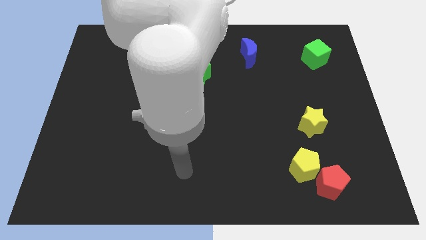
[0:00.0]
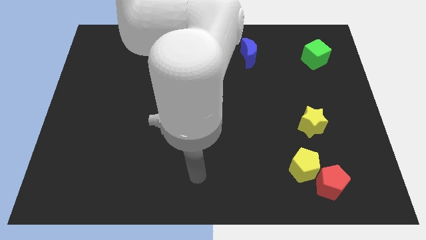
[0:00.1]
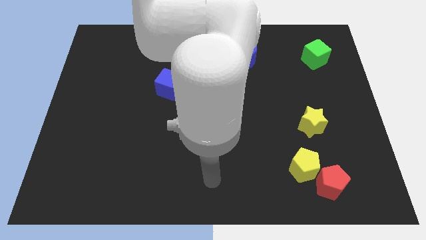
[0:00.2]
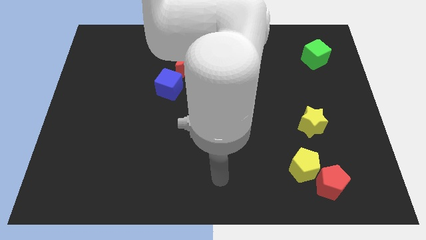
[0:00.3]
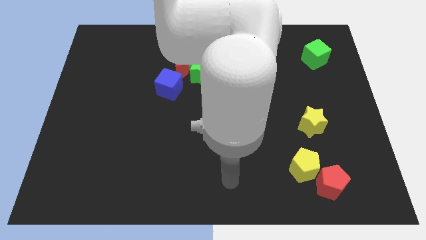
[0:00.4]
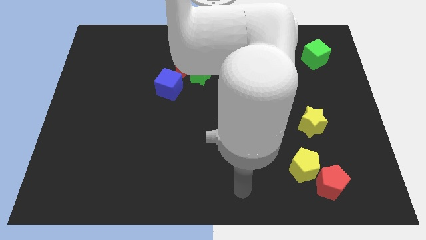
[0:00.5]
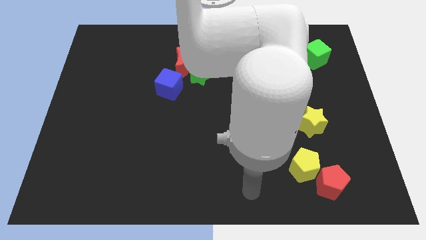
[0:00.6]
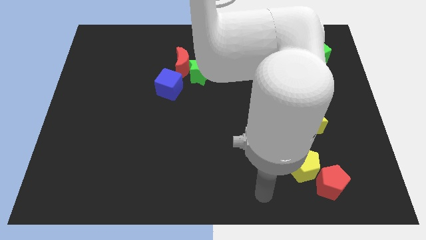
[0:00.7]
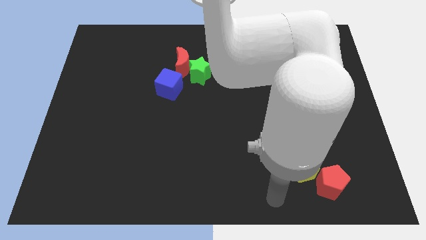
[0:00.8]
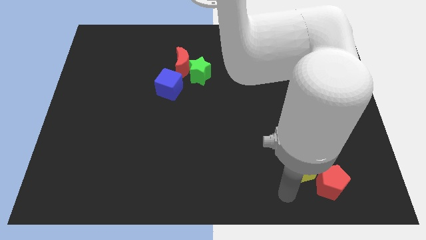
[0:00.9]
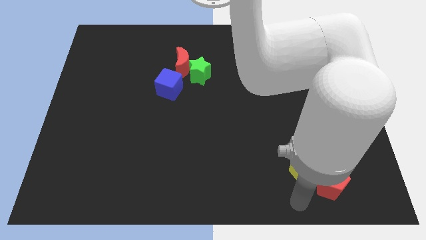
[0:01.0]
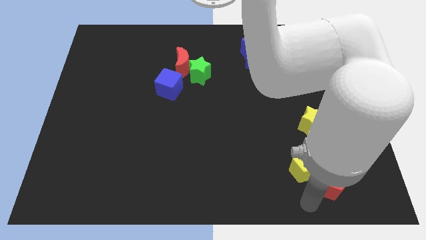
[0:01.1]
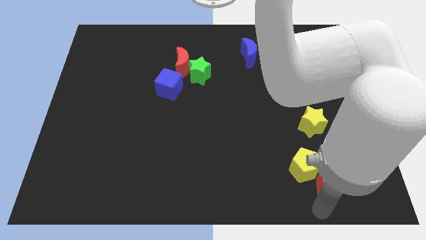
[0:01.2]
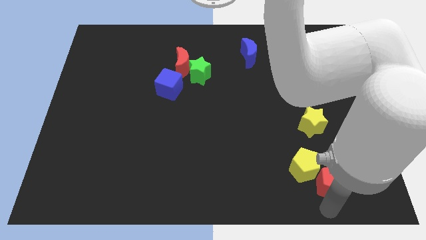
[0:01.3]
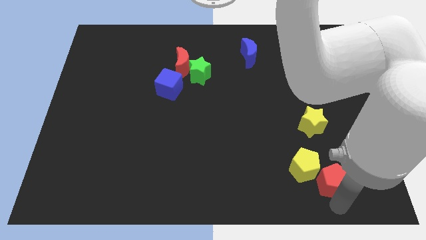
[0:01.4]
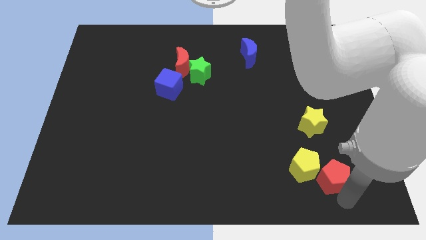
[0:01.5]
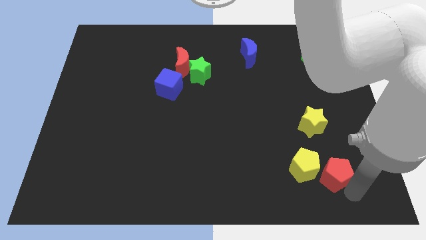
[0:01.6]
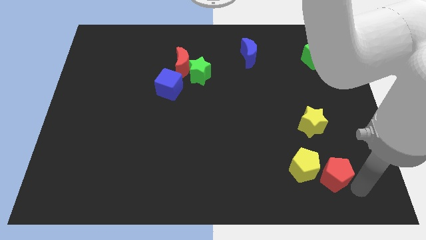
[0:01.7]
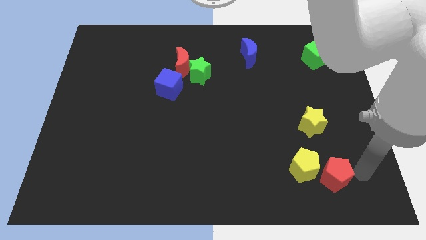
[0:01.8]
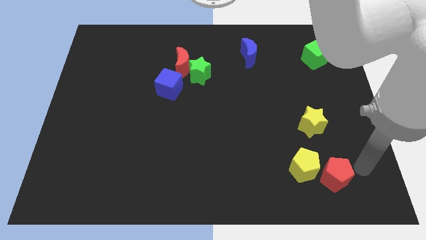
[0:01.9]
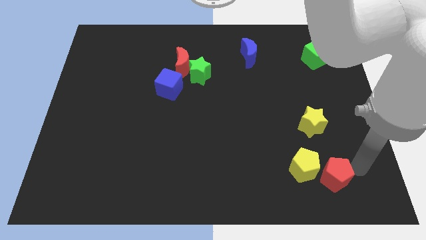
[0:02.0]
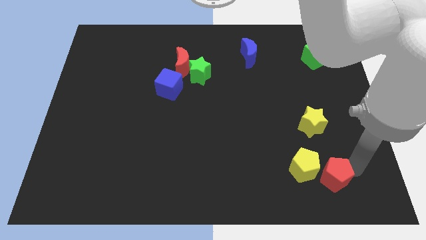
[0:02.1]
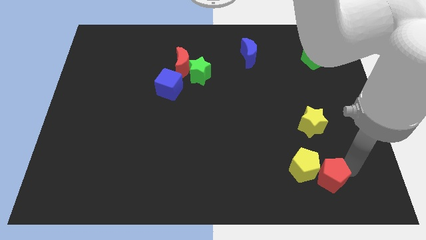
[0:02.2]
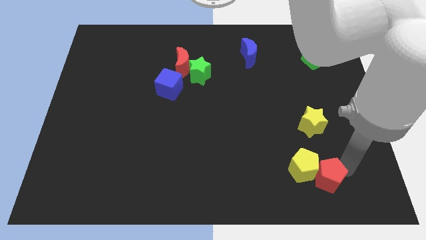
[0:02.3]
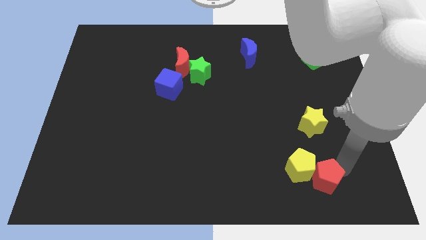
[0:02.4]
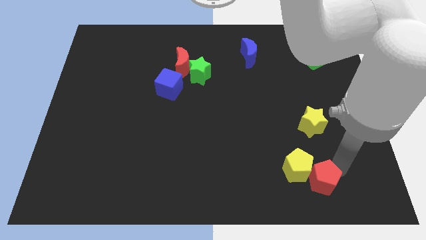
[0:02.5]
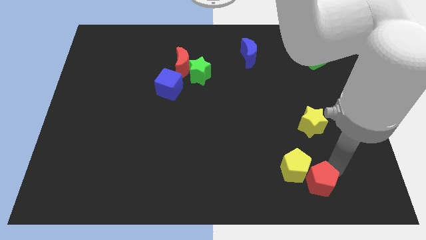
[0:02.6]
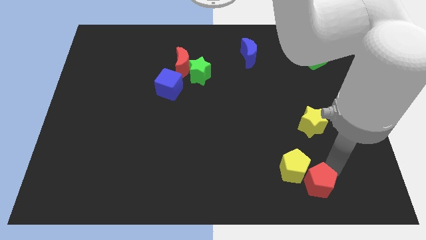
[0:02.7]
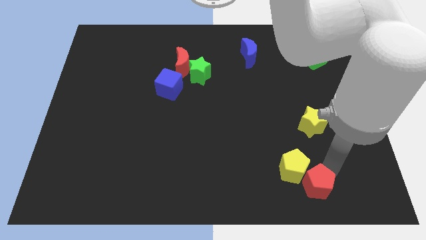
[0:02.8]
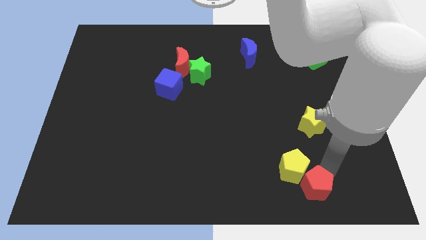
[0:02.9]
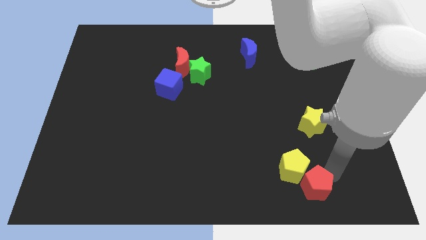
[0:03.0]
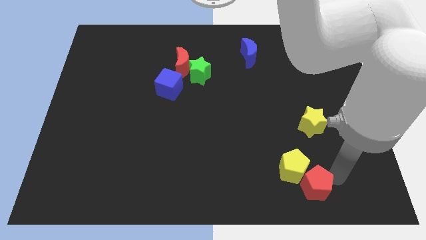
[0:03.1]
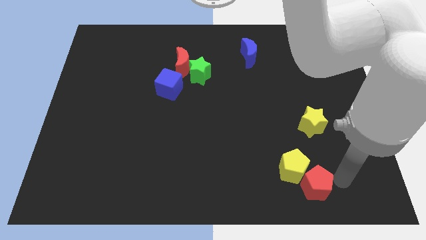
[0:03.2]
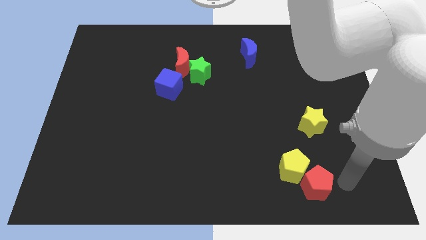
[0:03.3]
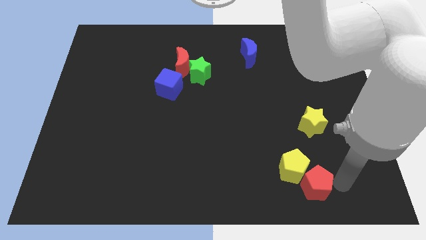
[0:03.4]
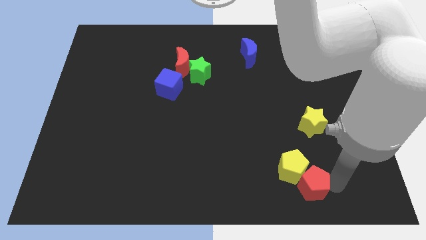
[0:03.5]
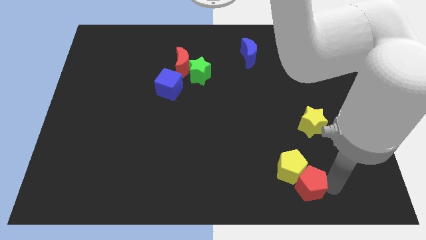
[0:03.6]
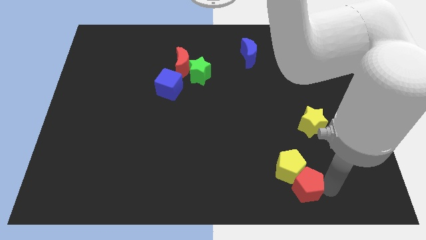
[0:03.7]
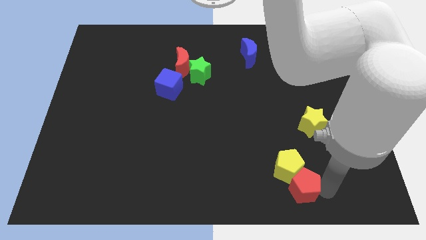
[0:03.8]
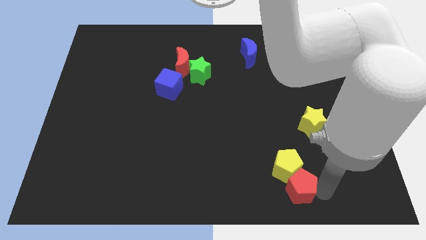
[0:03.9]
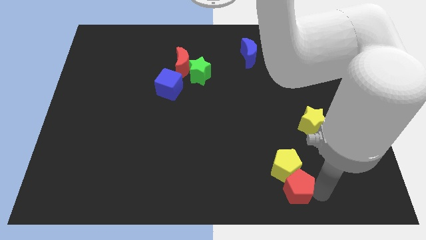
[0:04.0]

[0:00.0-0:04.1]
push the red pentagon left a little

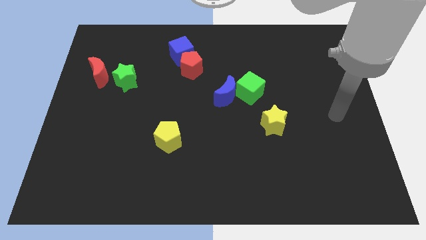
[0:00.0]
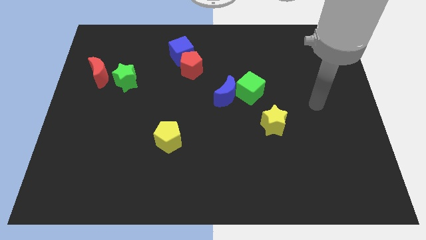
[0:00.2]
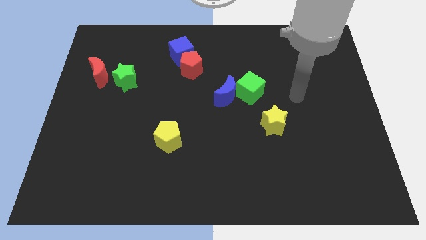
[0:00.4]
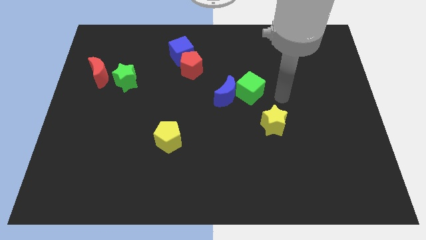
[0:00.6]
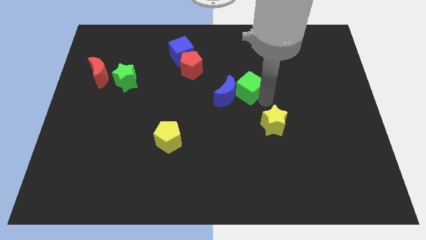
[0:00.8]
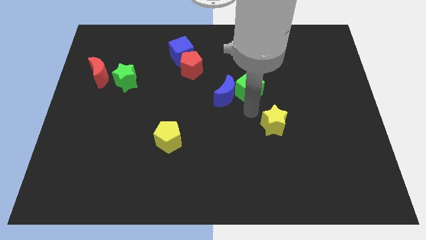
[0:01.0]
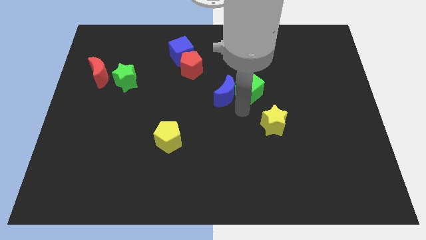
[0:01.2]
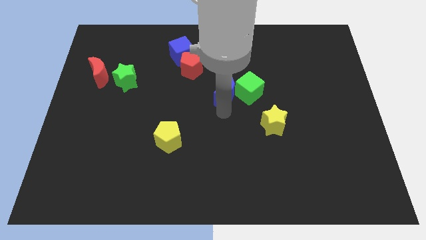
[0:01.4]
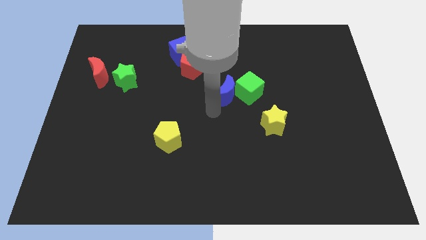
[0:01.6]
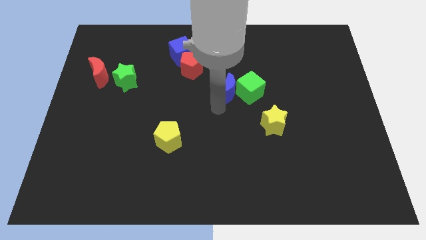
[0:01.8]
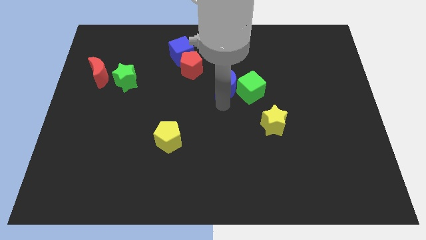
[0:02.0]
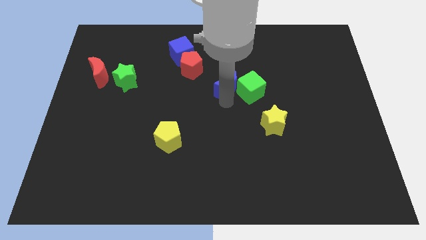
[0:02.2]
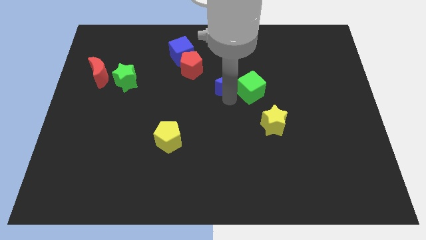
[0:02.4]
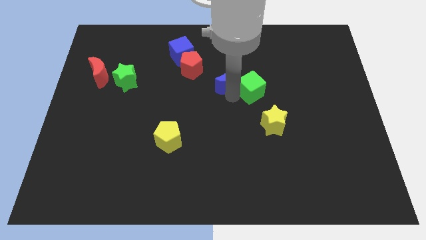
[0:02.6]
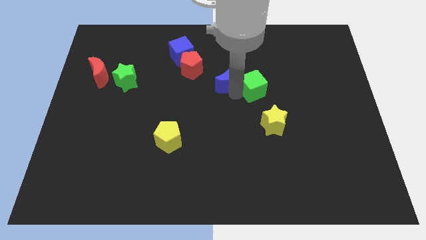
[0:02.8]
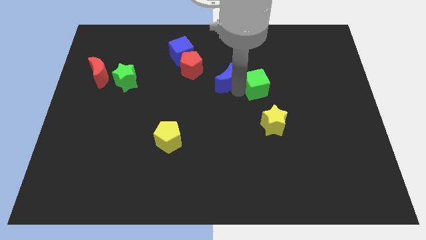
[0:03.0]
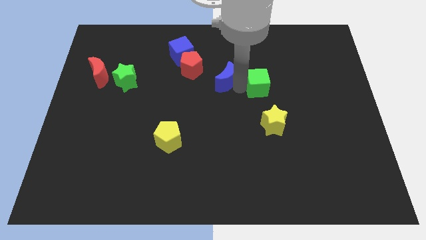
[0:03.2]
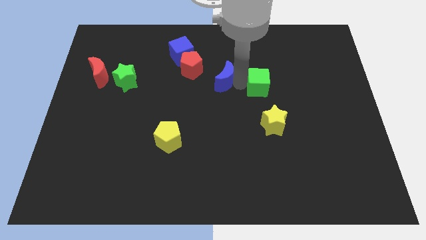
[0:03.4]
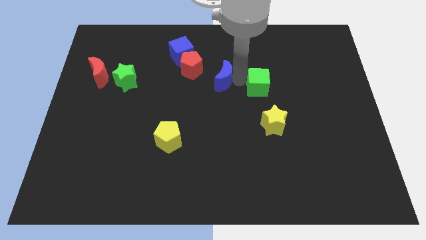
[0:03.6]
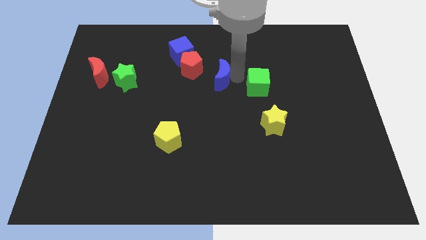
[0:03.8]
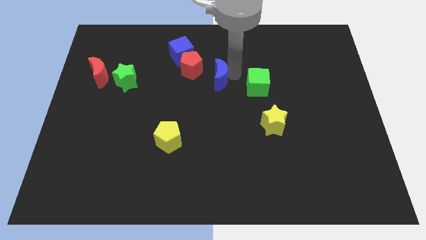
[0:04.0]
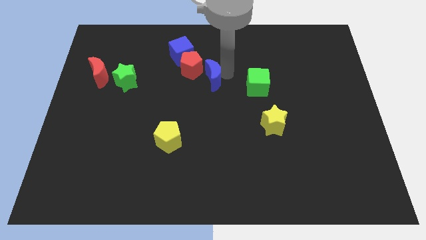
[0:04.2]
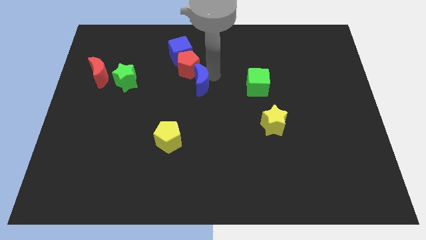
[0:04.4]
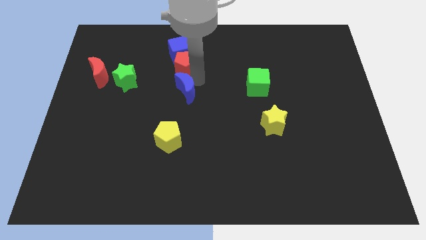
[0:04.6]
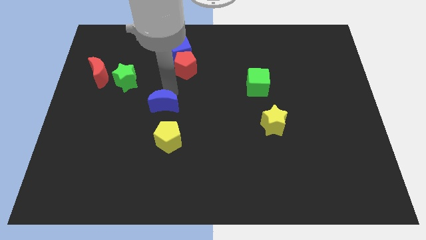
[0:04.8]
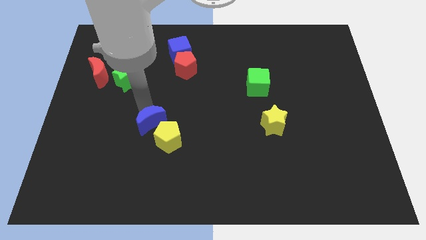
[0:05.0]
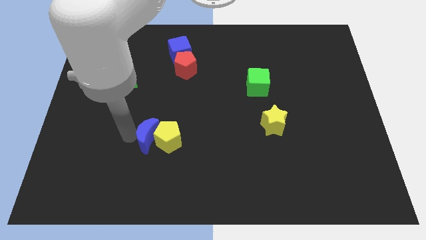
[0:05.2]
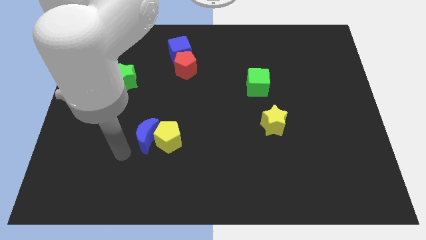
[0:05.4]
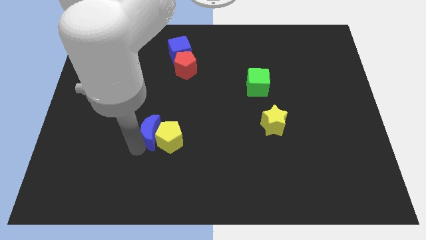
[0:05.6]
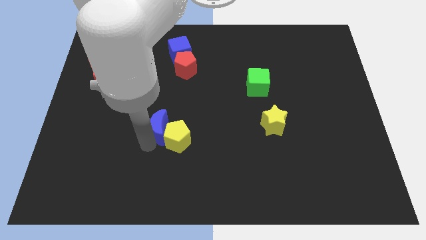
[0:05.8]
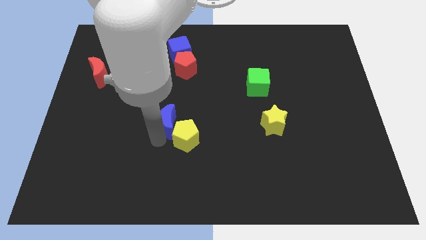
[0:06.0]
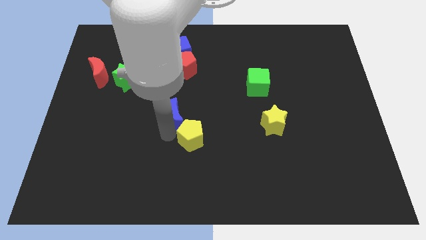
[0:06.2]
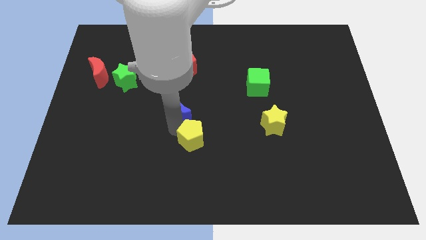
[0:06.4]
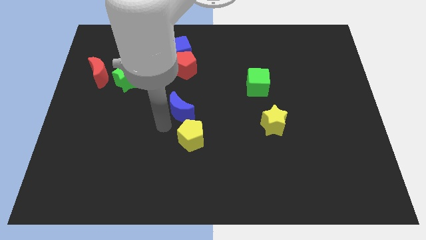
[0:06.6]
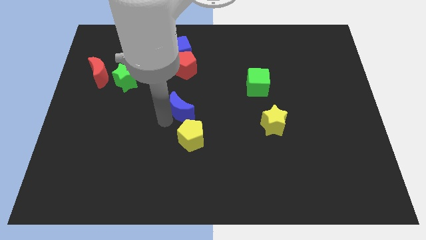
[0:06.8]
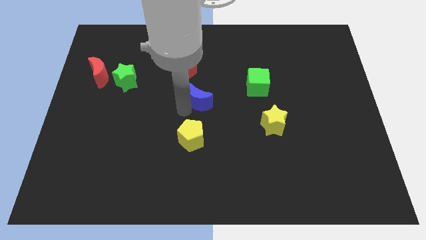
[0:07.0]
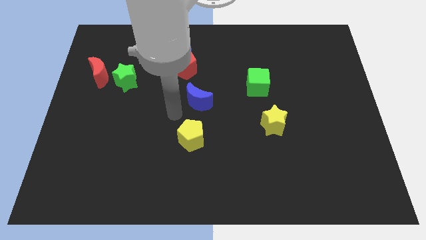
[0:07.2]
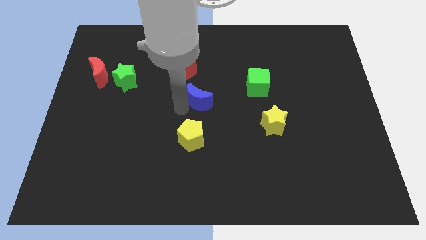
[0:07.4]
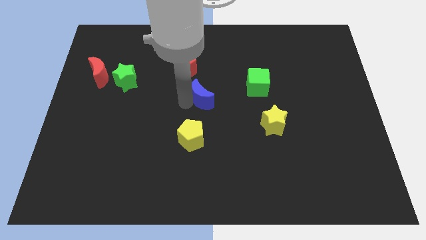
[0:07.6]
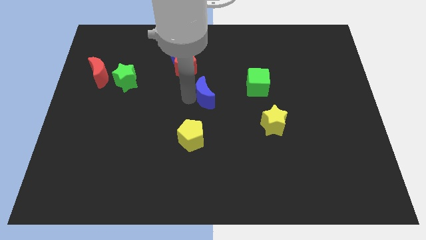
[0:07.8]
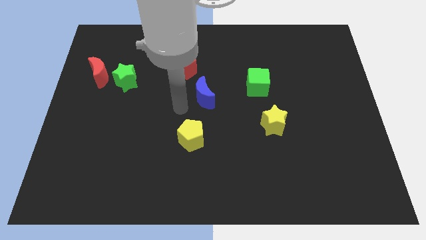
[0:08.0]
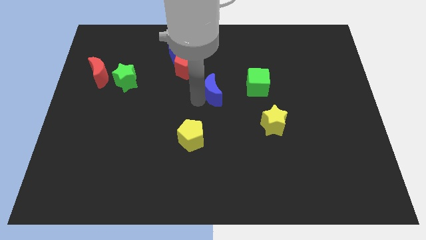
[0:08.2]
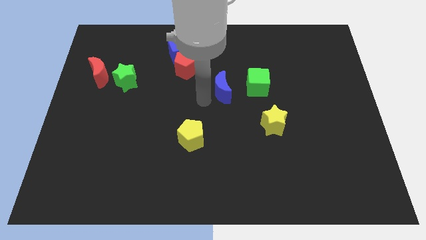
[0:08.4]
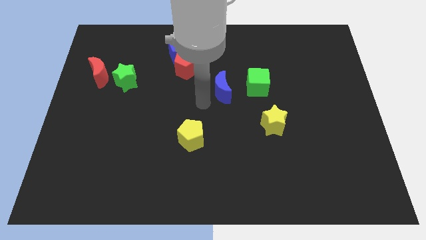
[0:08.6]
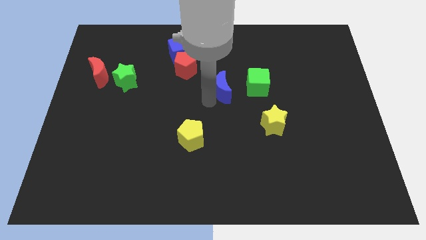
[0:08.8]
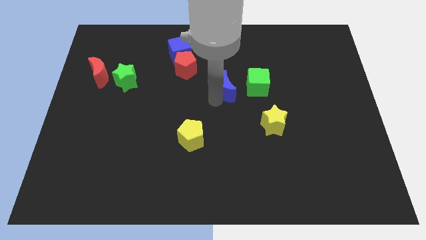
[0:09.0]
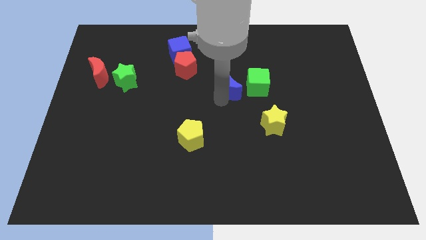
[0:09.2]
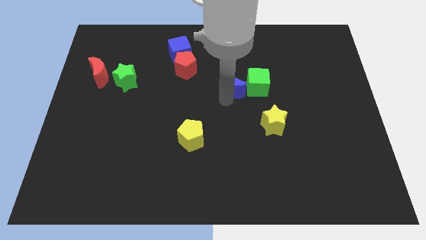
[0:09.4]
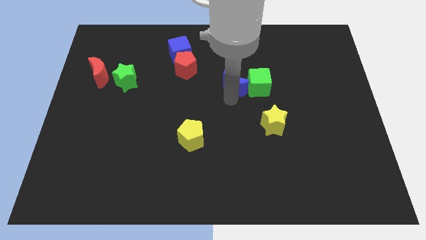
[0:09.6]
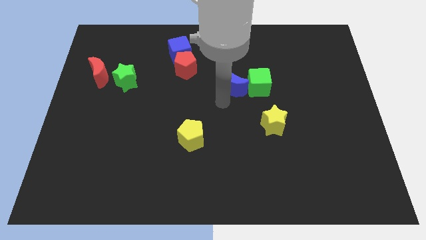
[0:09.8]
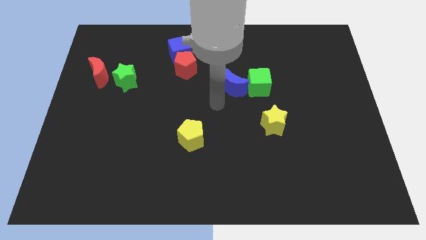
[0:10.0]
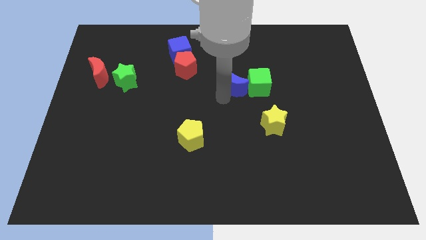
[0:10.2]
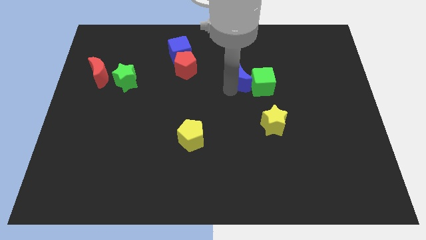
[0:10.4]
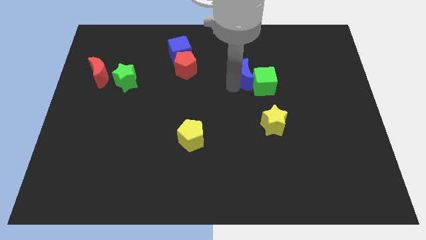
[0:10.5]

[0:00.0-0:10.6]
move the blue moon up and right slightly
